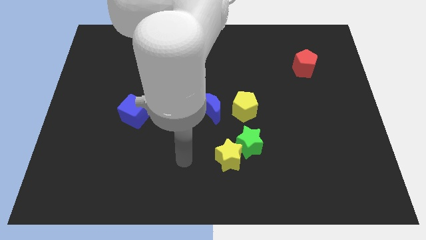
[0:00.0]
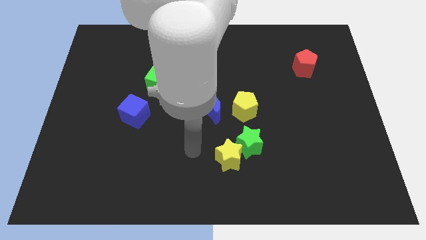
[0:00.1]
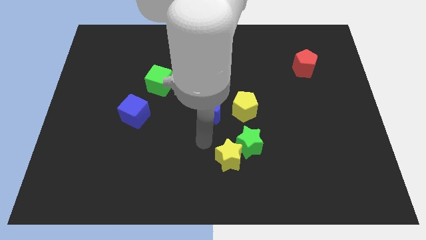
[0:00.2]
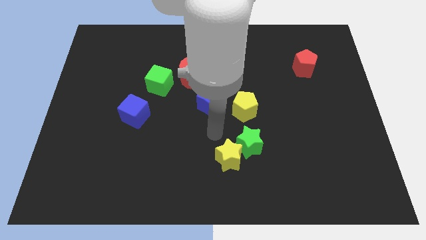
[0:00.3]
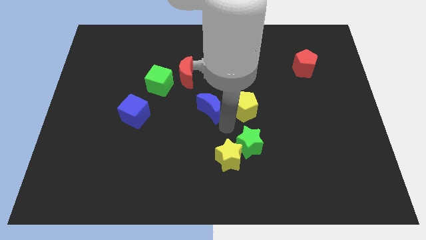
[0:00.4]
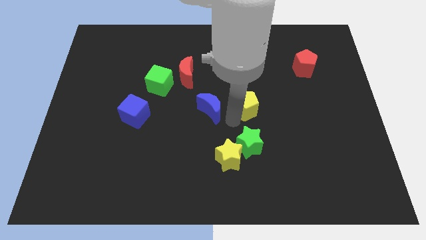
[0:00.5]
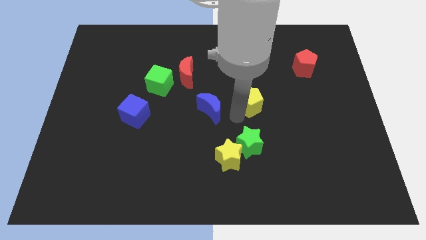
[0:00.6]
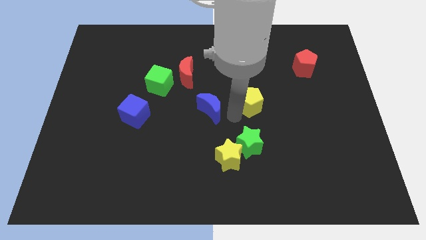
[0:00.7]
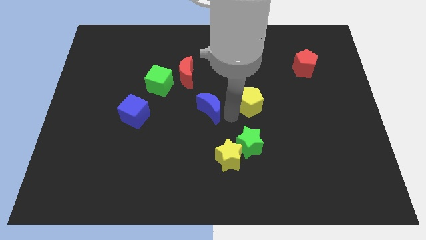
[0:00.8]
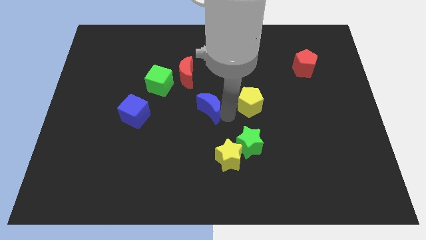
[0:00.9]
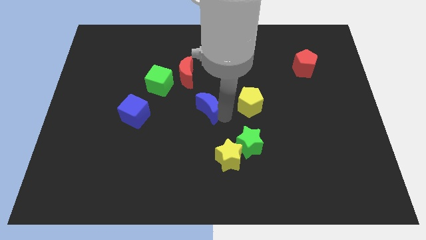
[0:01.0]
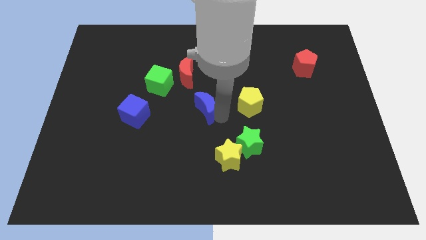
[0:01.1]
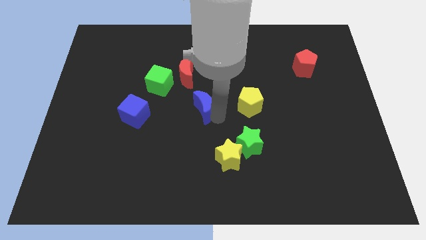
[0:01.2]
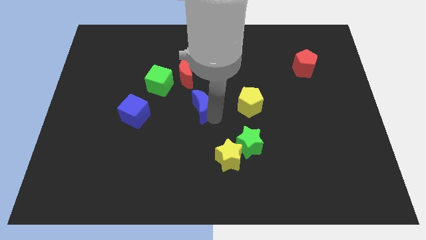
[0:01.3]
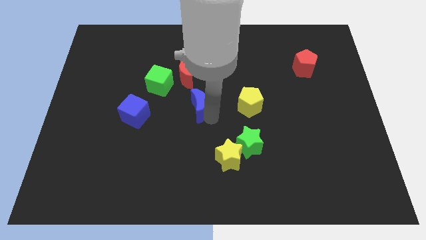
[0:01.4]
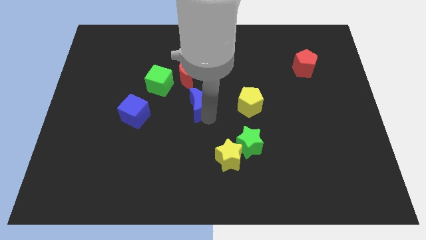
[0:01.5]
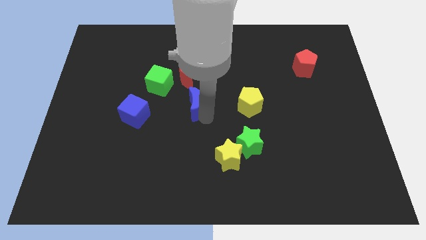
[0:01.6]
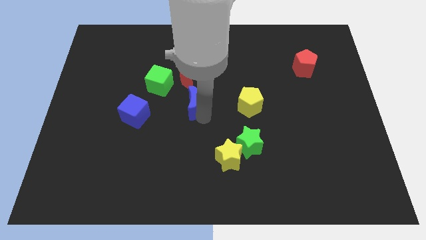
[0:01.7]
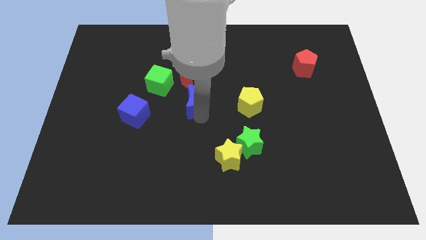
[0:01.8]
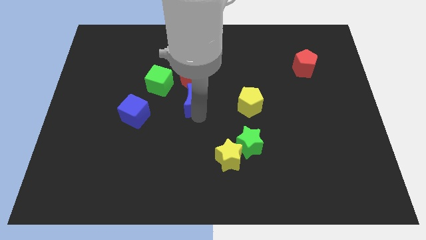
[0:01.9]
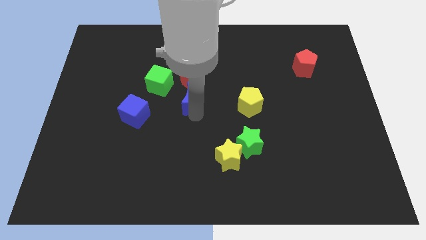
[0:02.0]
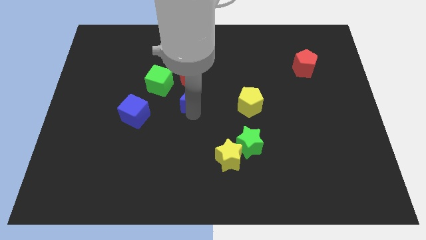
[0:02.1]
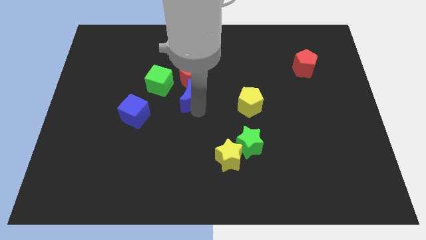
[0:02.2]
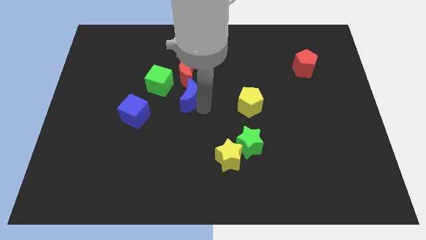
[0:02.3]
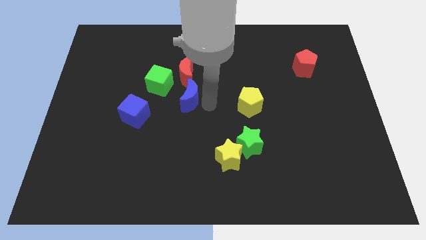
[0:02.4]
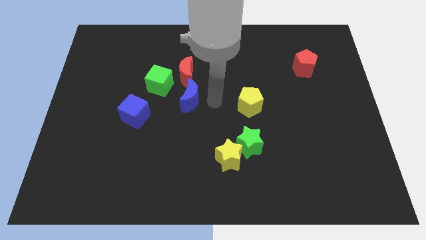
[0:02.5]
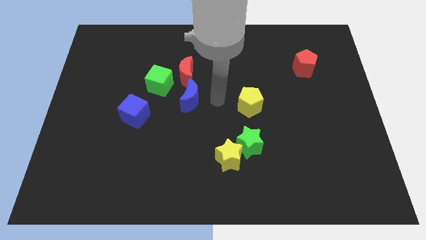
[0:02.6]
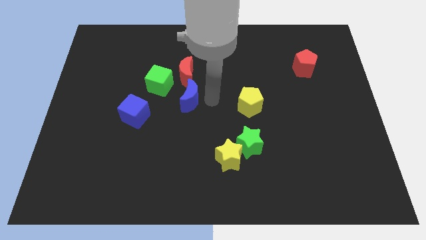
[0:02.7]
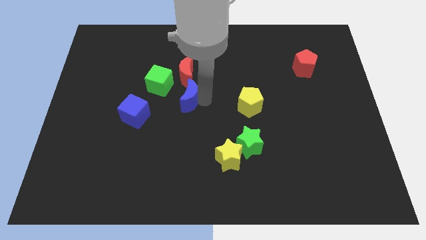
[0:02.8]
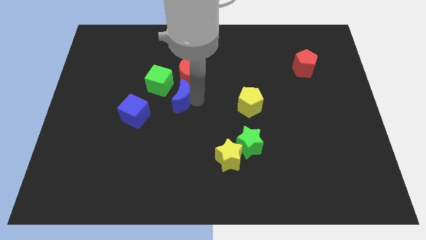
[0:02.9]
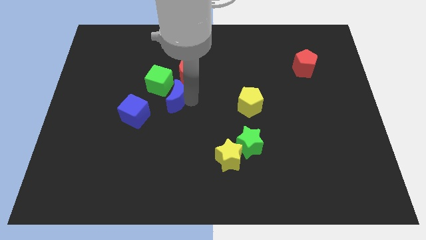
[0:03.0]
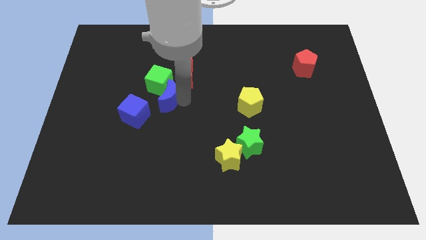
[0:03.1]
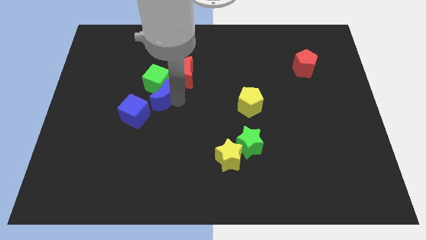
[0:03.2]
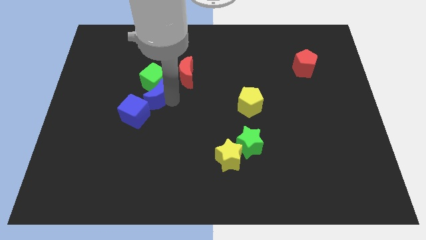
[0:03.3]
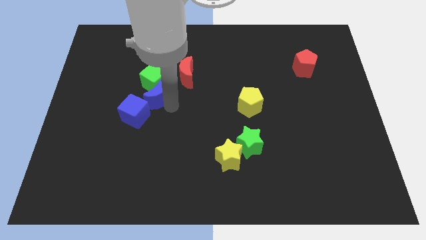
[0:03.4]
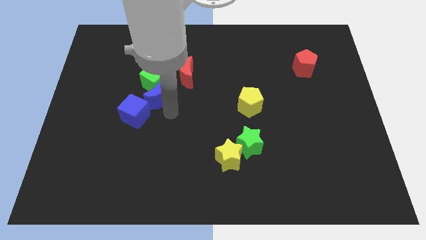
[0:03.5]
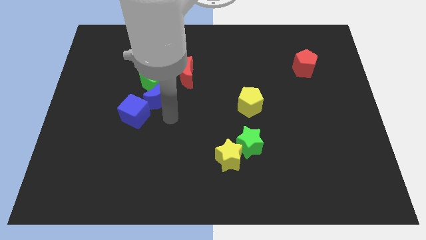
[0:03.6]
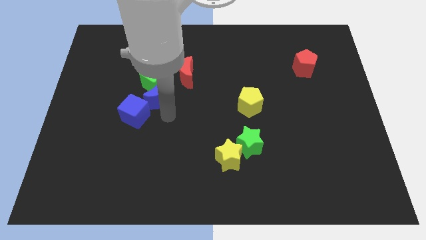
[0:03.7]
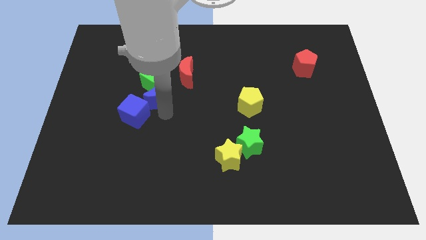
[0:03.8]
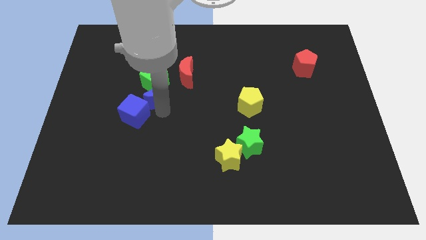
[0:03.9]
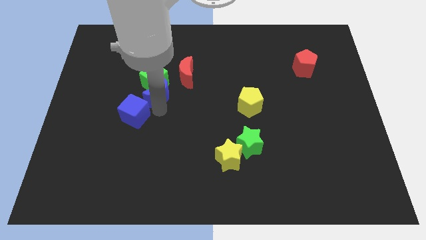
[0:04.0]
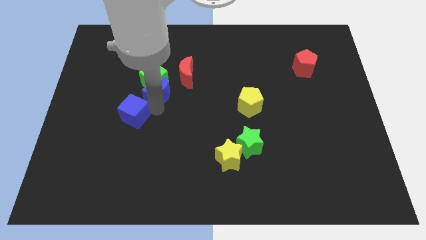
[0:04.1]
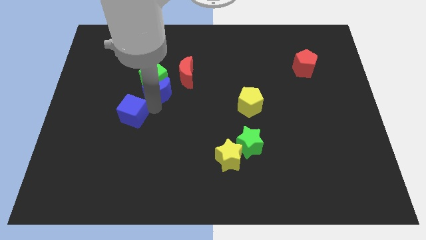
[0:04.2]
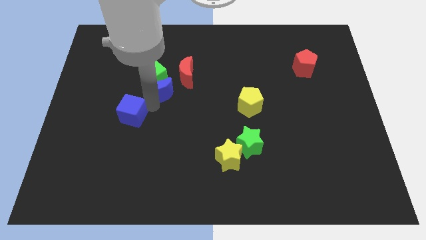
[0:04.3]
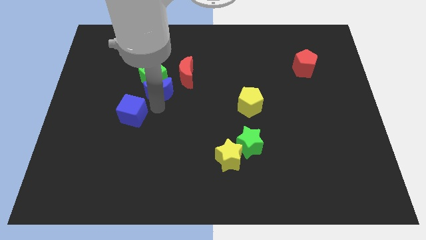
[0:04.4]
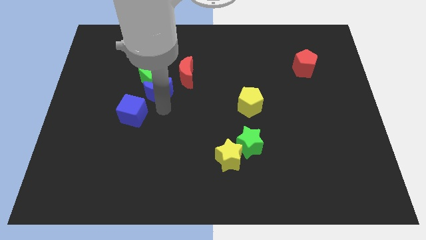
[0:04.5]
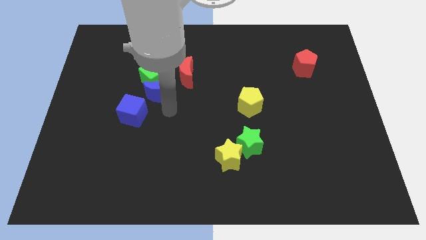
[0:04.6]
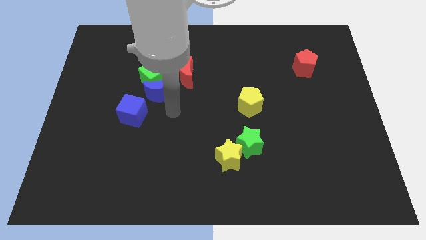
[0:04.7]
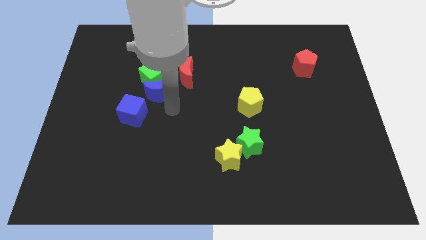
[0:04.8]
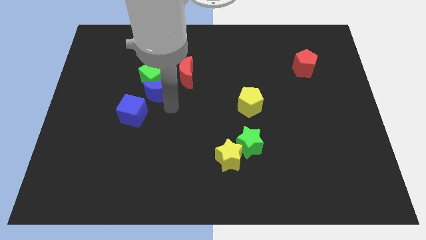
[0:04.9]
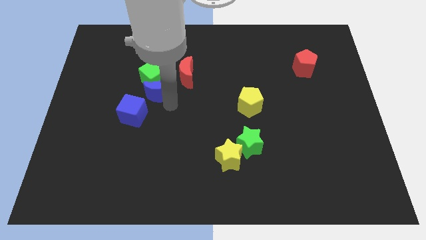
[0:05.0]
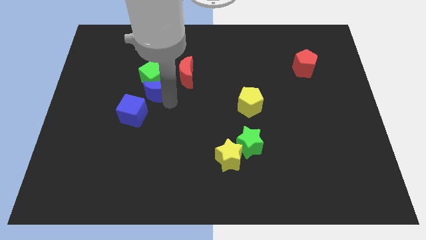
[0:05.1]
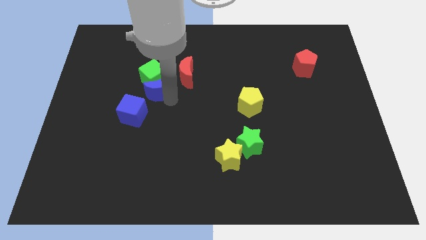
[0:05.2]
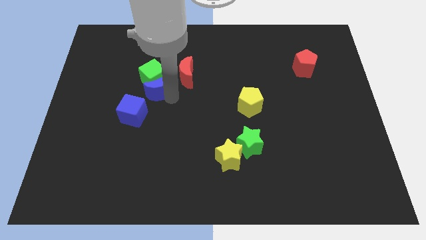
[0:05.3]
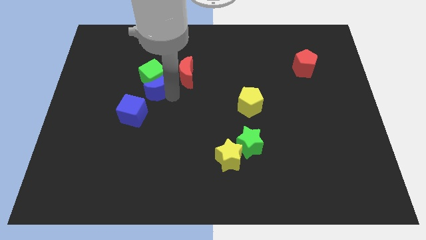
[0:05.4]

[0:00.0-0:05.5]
slide the blue moon just left of the red moon

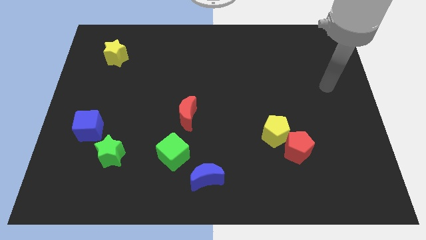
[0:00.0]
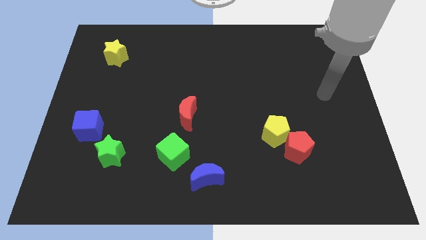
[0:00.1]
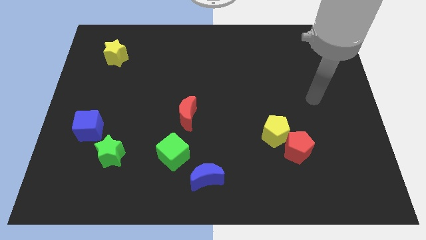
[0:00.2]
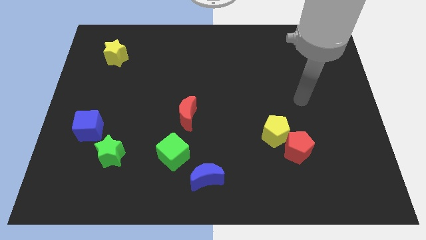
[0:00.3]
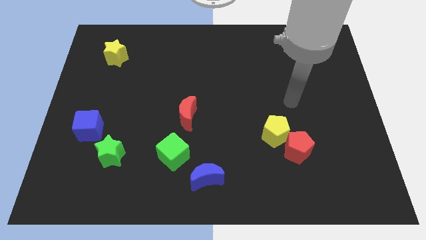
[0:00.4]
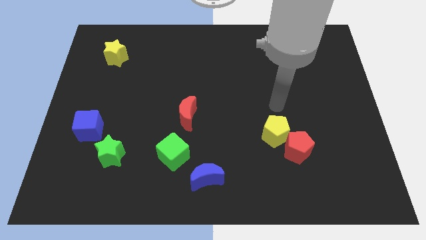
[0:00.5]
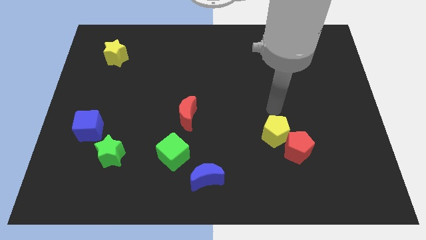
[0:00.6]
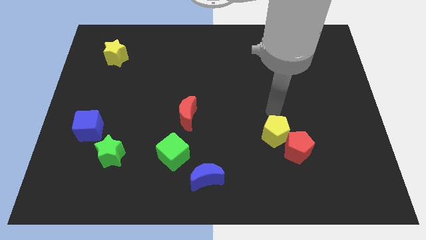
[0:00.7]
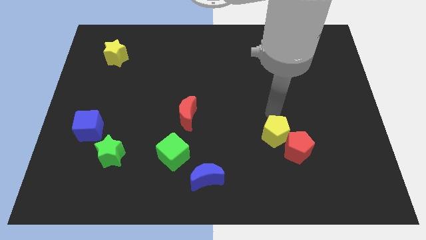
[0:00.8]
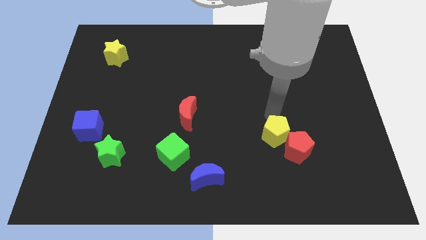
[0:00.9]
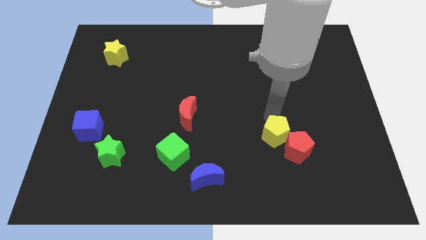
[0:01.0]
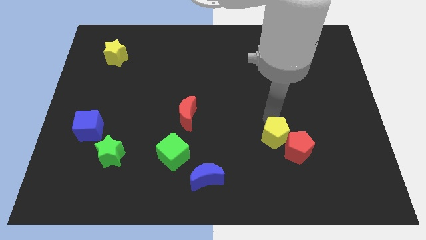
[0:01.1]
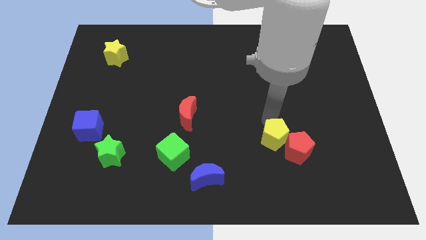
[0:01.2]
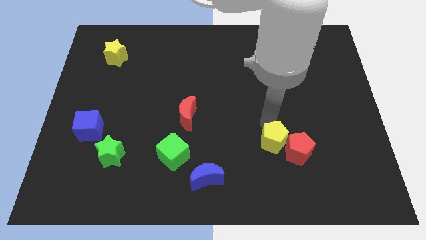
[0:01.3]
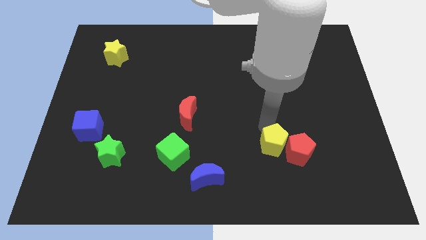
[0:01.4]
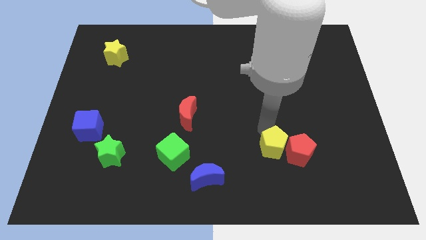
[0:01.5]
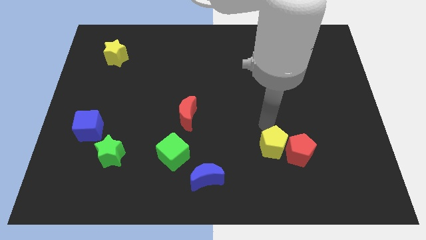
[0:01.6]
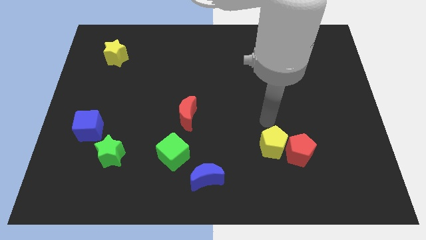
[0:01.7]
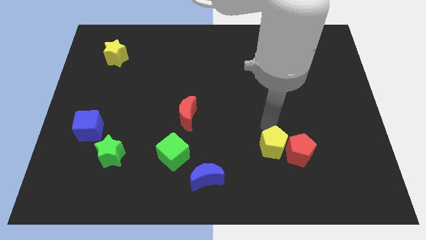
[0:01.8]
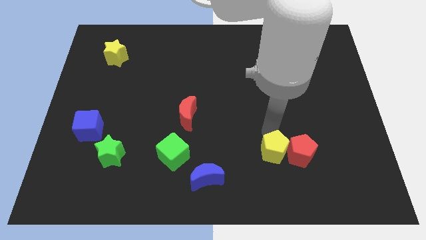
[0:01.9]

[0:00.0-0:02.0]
put the yellow pentagon to the bottom left of the red pentagon
